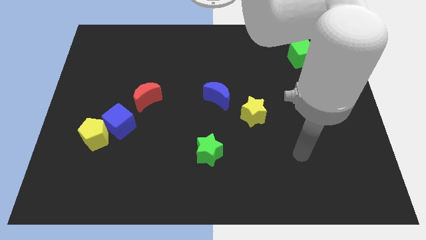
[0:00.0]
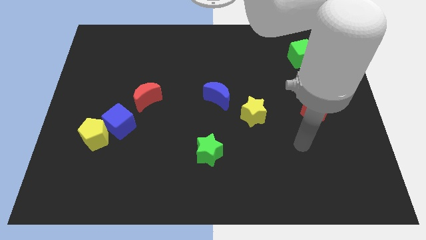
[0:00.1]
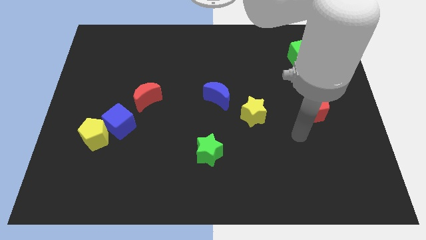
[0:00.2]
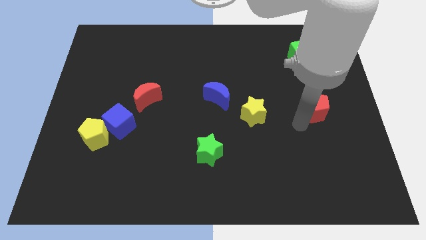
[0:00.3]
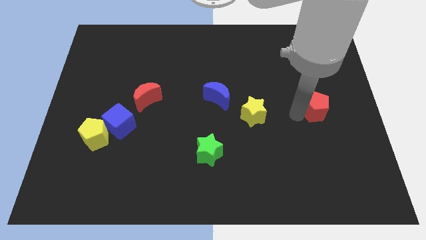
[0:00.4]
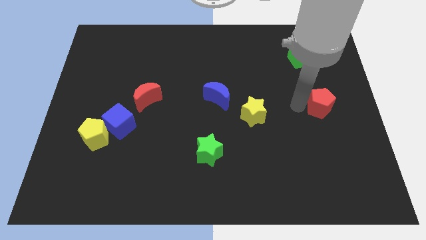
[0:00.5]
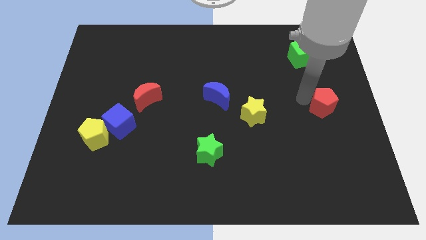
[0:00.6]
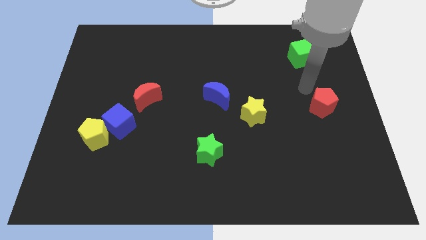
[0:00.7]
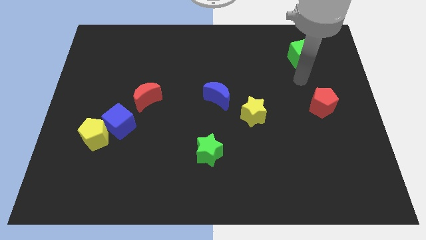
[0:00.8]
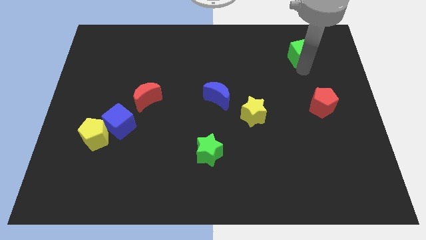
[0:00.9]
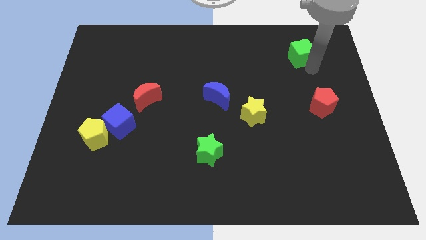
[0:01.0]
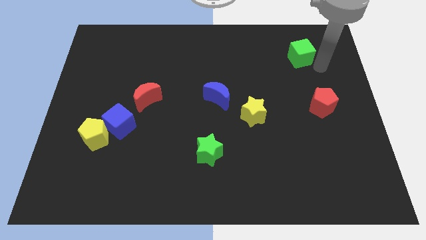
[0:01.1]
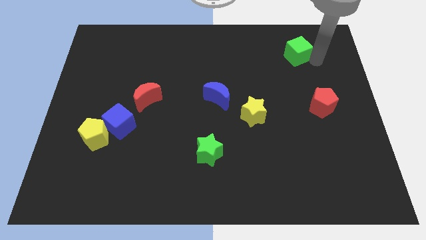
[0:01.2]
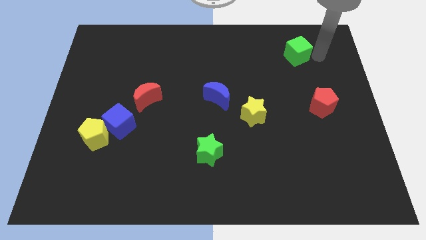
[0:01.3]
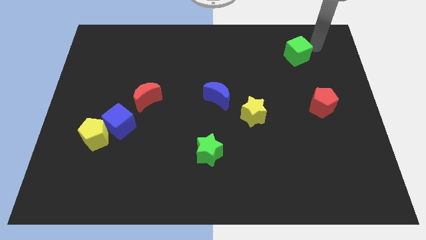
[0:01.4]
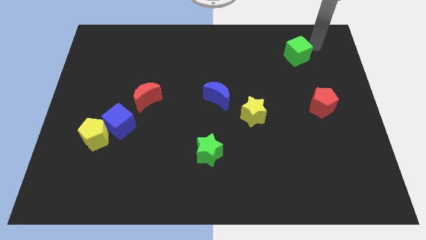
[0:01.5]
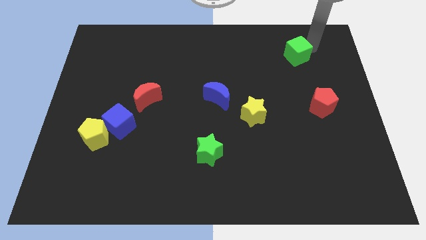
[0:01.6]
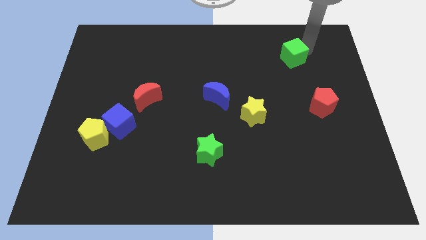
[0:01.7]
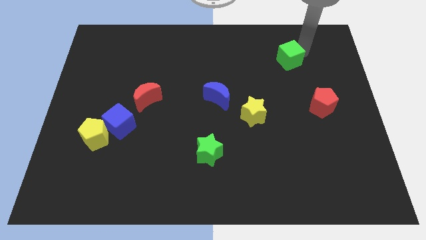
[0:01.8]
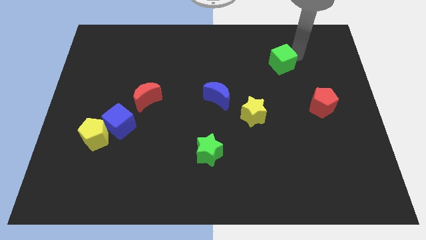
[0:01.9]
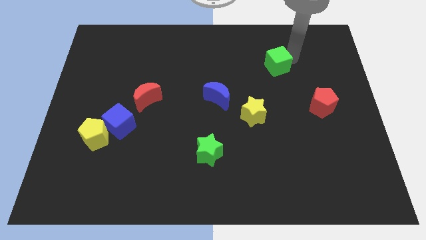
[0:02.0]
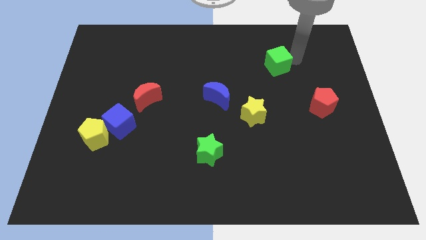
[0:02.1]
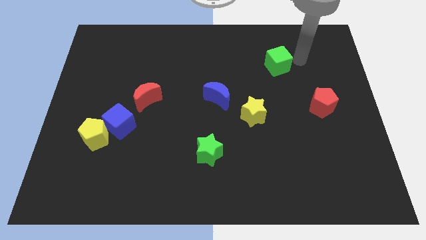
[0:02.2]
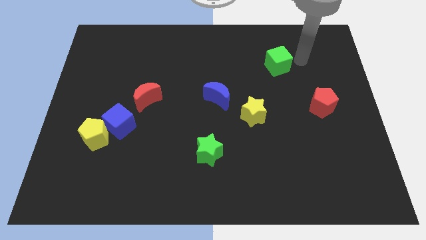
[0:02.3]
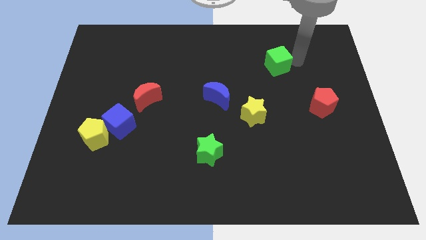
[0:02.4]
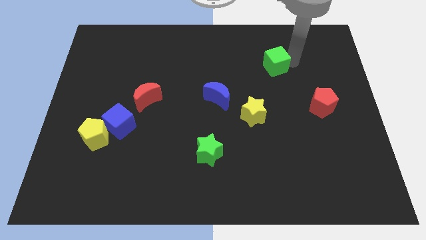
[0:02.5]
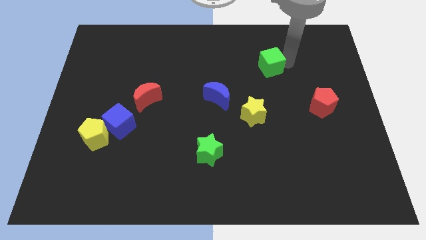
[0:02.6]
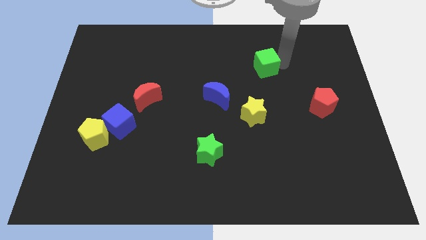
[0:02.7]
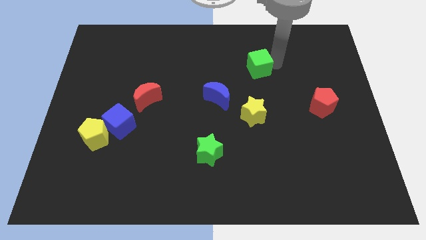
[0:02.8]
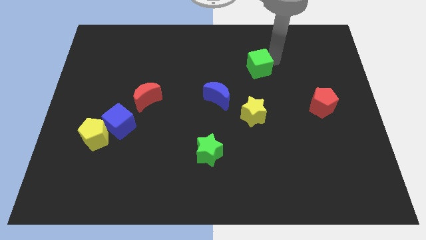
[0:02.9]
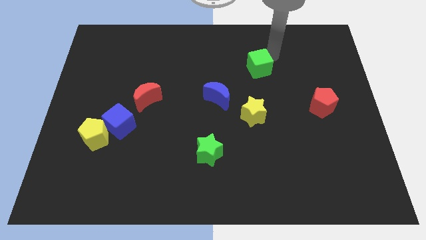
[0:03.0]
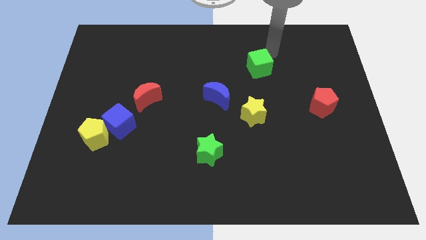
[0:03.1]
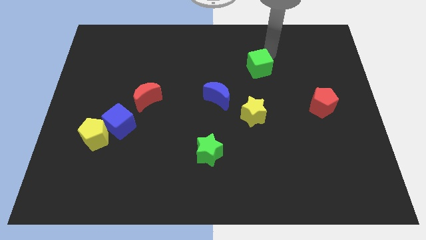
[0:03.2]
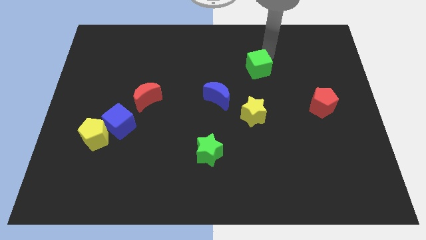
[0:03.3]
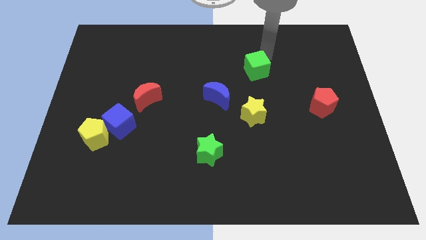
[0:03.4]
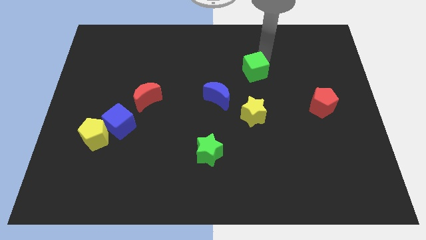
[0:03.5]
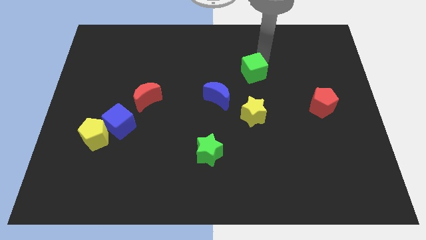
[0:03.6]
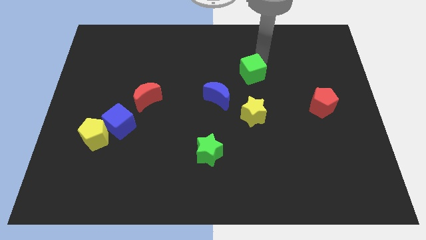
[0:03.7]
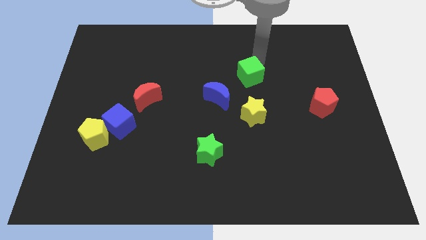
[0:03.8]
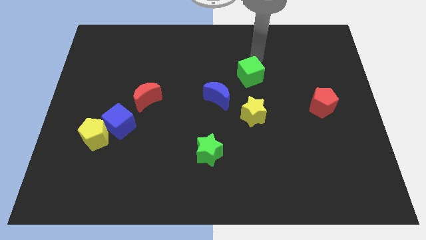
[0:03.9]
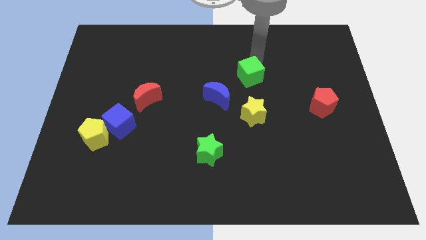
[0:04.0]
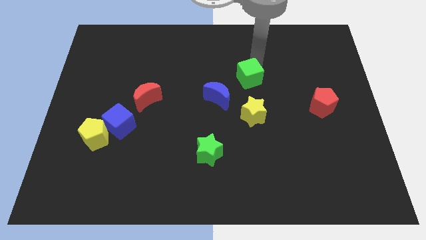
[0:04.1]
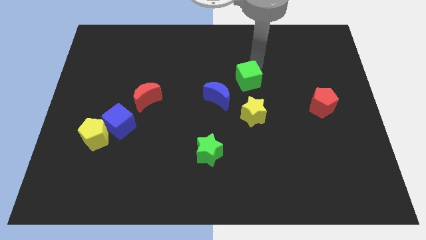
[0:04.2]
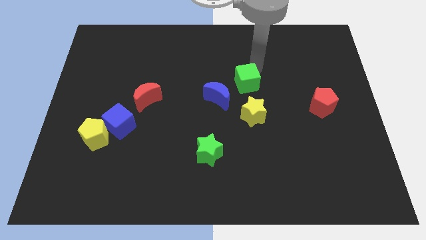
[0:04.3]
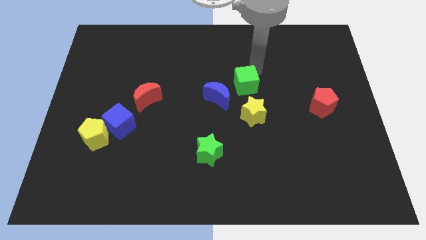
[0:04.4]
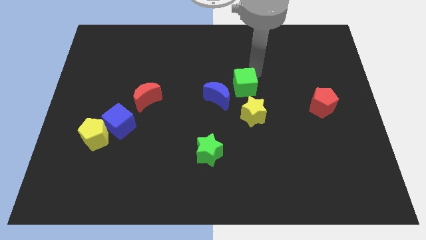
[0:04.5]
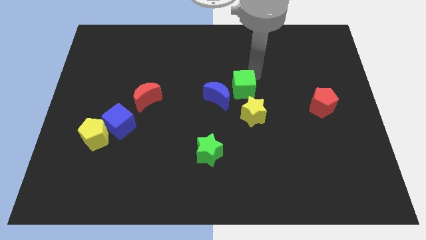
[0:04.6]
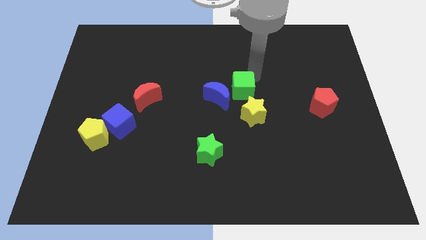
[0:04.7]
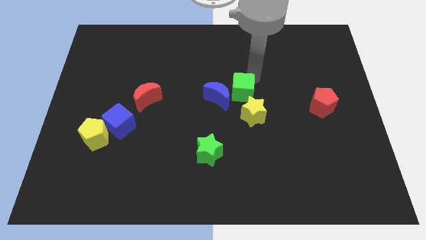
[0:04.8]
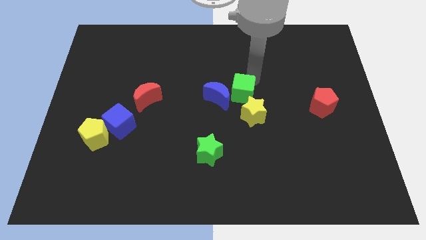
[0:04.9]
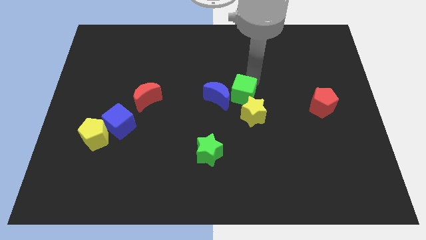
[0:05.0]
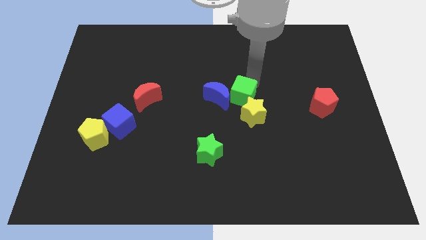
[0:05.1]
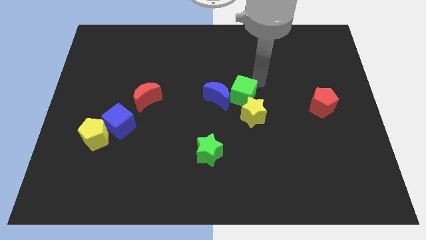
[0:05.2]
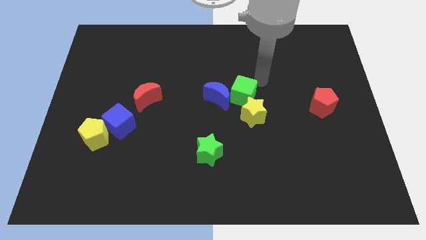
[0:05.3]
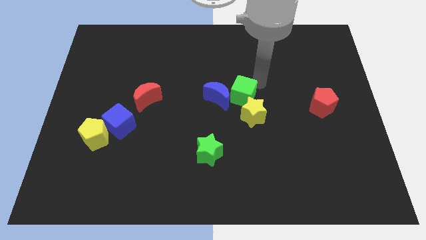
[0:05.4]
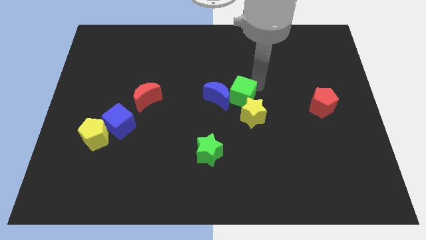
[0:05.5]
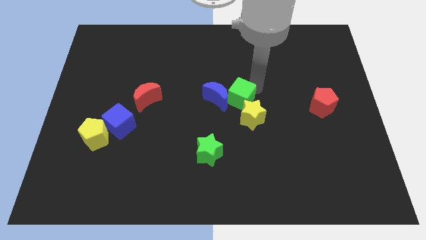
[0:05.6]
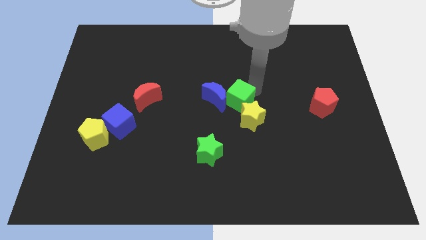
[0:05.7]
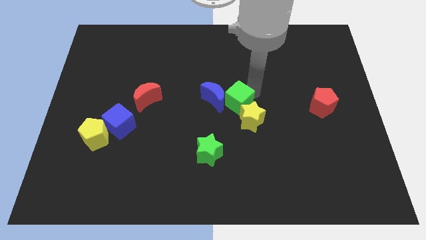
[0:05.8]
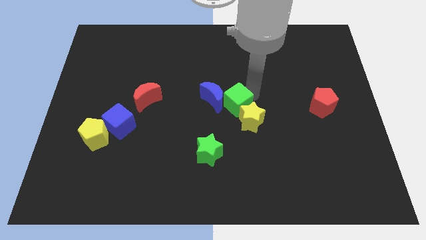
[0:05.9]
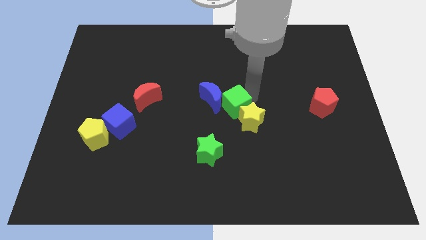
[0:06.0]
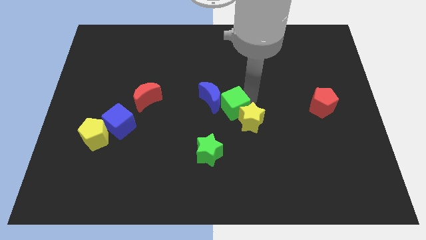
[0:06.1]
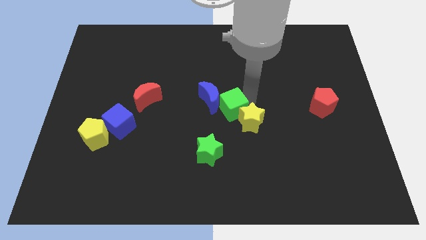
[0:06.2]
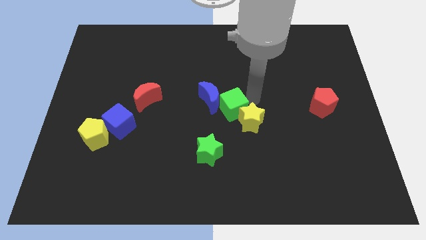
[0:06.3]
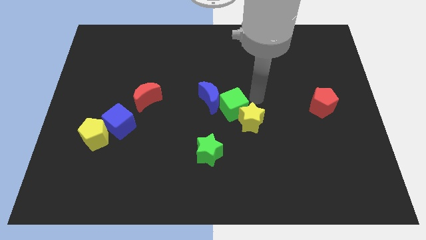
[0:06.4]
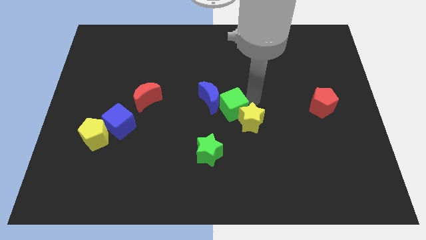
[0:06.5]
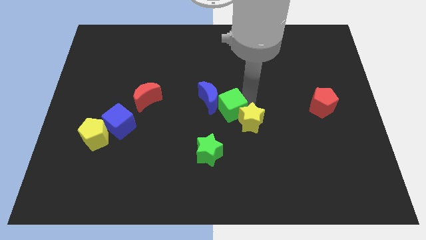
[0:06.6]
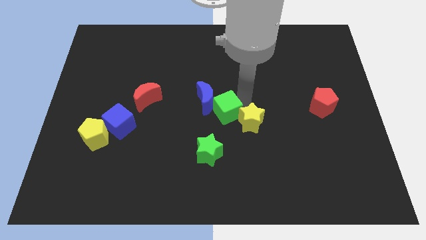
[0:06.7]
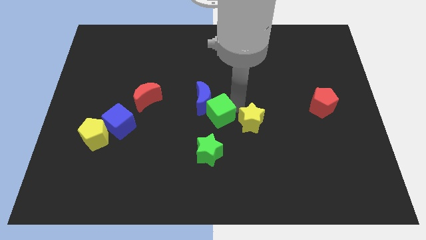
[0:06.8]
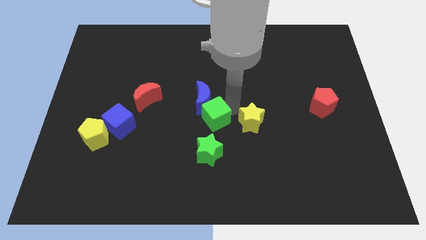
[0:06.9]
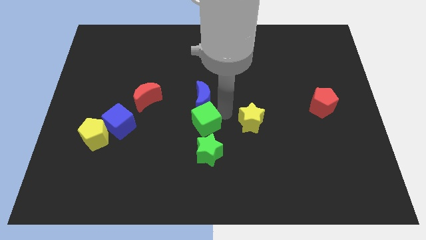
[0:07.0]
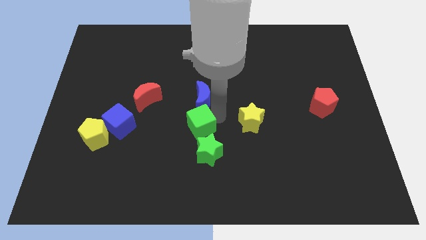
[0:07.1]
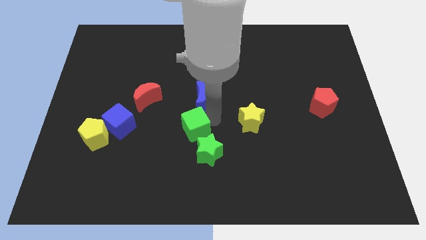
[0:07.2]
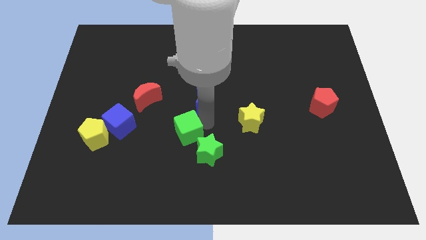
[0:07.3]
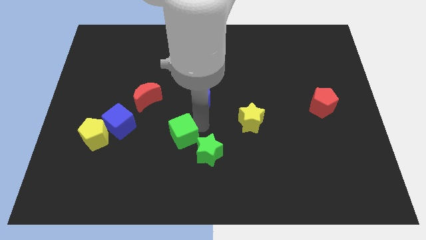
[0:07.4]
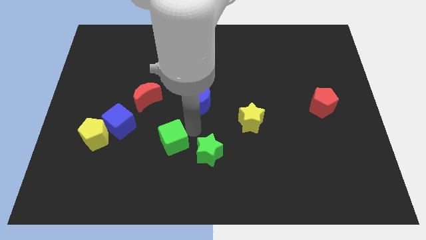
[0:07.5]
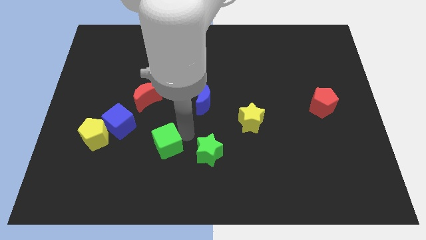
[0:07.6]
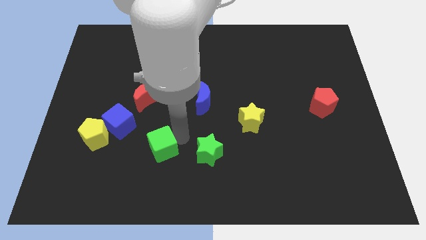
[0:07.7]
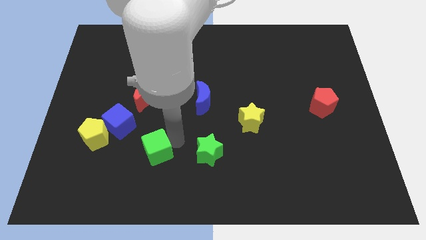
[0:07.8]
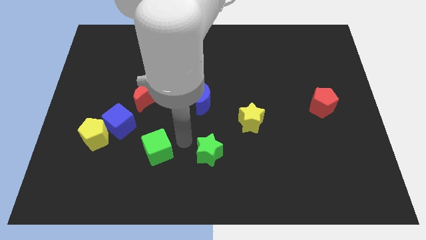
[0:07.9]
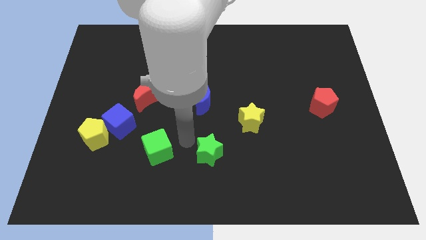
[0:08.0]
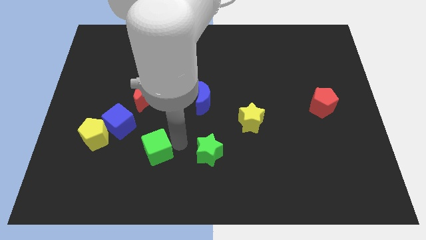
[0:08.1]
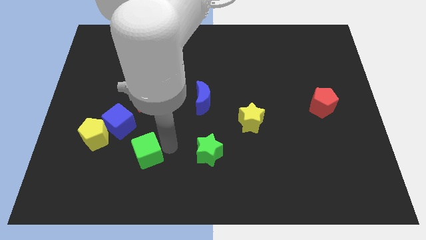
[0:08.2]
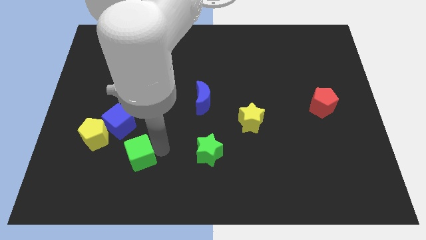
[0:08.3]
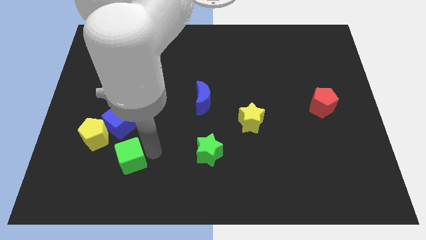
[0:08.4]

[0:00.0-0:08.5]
push the green cube below the blue cube
